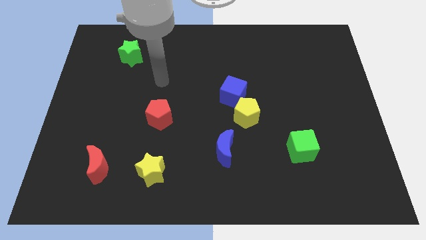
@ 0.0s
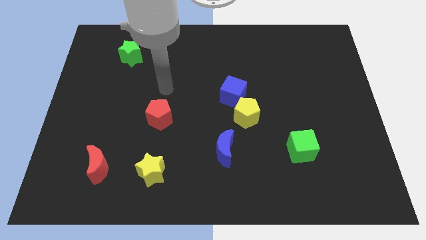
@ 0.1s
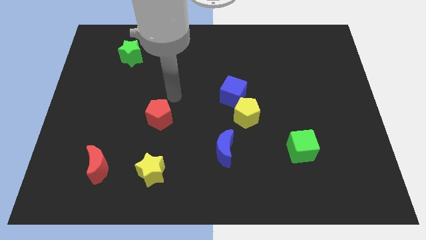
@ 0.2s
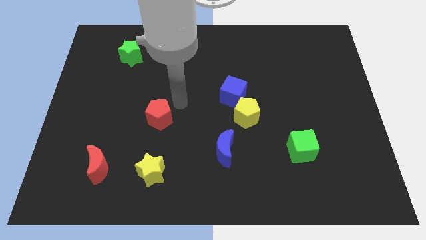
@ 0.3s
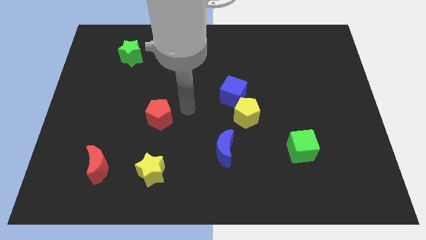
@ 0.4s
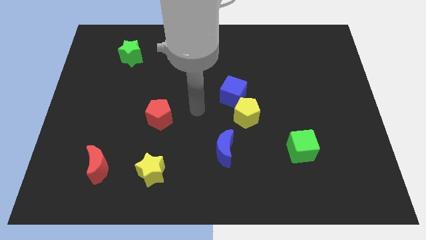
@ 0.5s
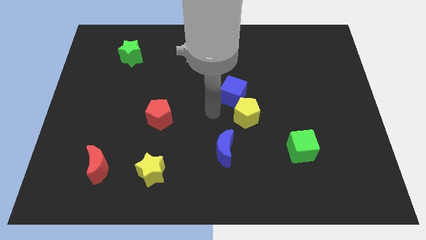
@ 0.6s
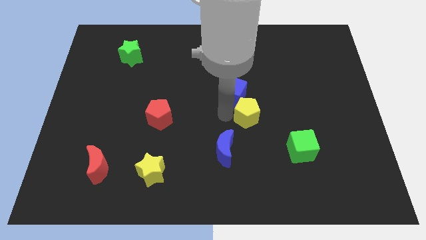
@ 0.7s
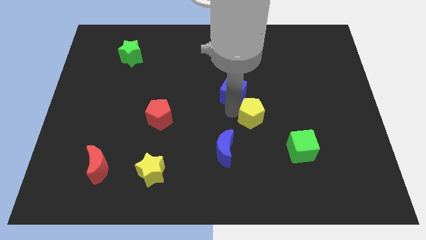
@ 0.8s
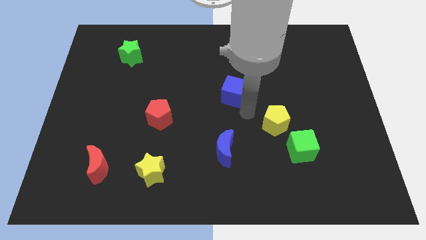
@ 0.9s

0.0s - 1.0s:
separate the blue cube from the yellow pentagon

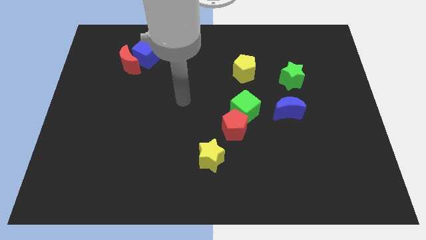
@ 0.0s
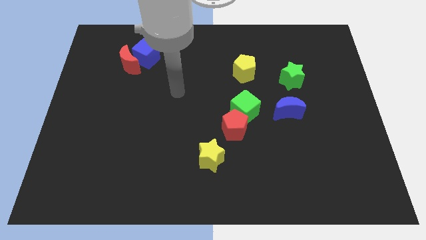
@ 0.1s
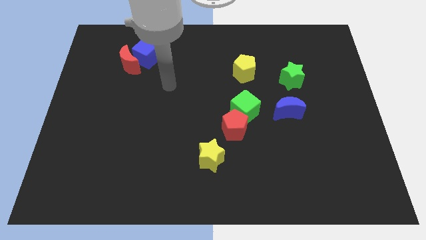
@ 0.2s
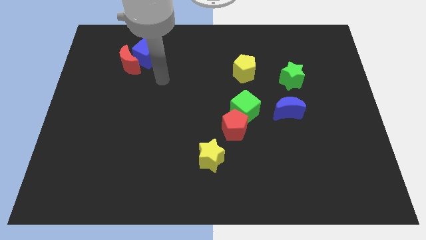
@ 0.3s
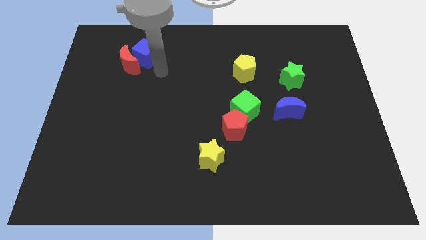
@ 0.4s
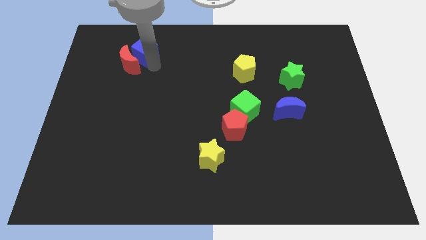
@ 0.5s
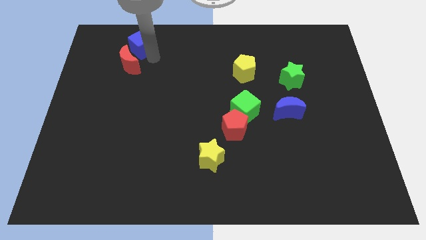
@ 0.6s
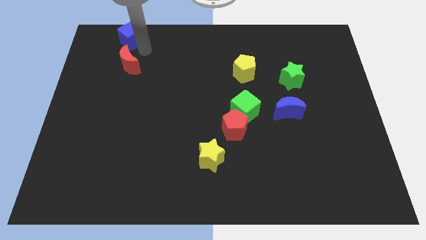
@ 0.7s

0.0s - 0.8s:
pull the red moon apart from the blue cube

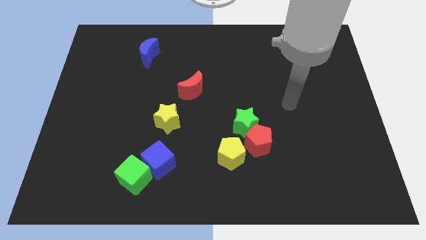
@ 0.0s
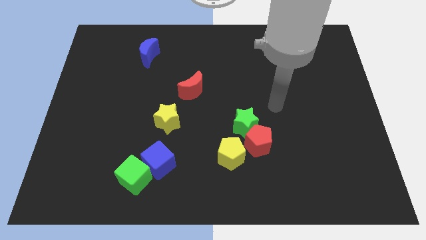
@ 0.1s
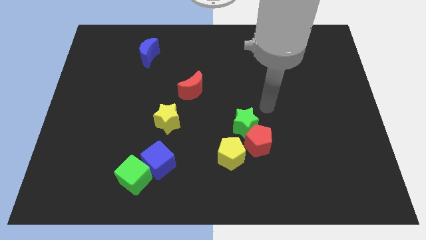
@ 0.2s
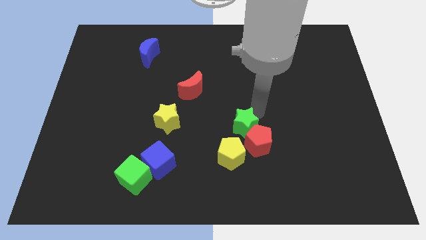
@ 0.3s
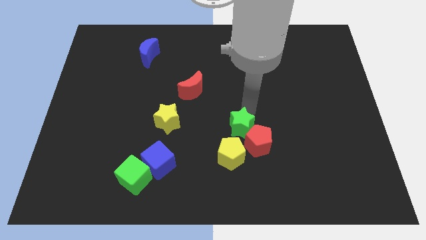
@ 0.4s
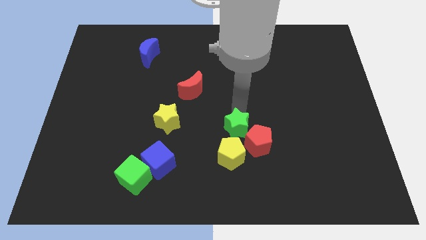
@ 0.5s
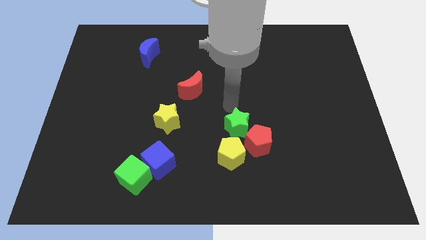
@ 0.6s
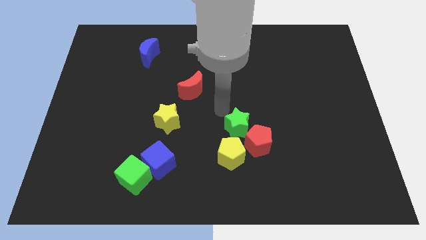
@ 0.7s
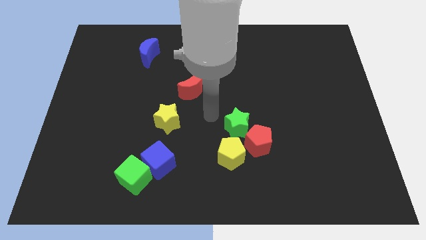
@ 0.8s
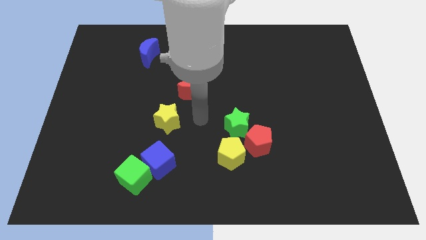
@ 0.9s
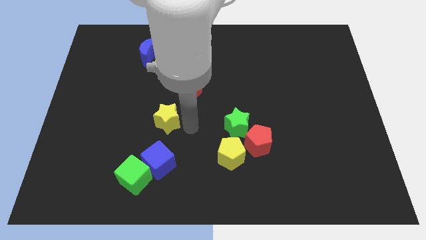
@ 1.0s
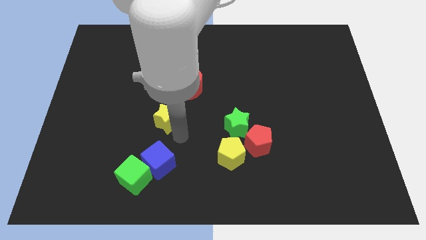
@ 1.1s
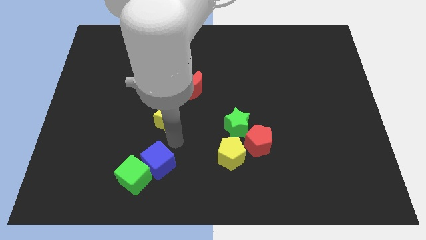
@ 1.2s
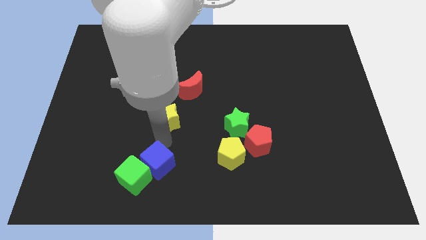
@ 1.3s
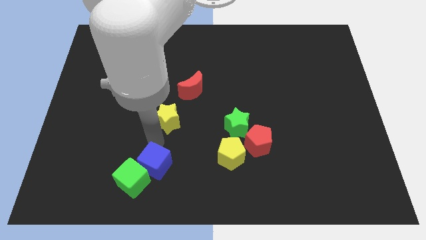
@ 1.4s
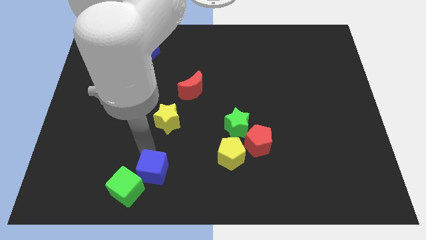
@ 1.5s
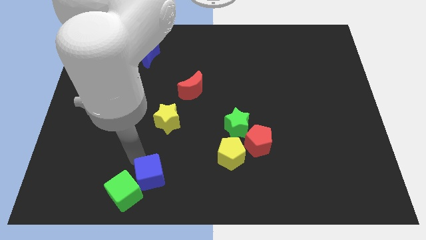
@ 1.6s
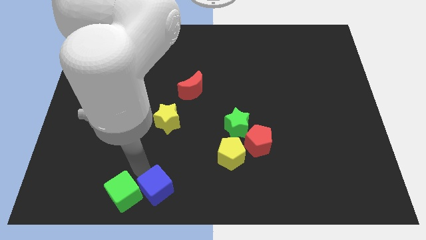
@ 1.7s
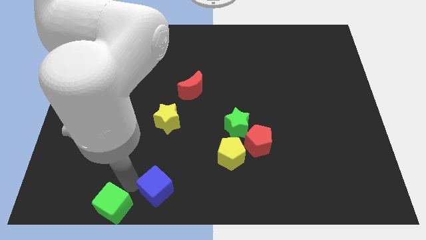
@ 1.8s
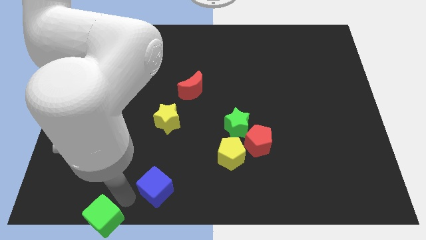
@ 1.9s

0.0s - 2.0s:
pull the blue cube apart from the green cube

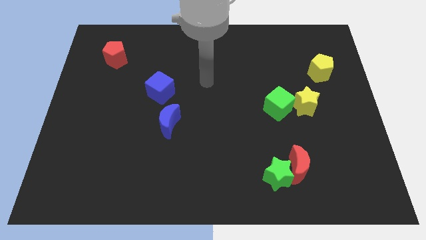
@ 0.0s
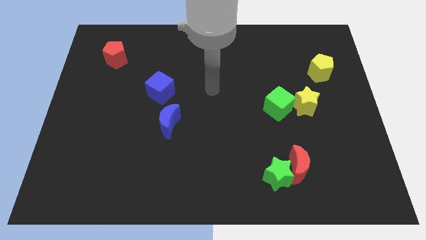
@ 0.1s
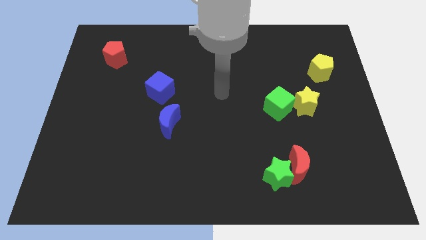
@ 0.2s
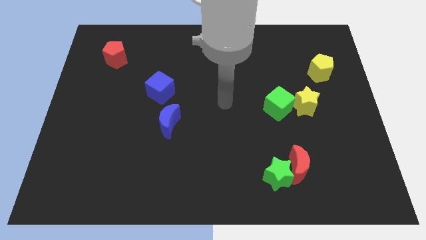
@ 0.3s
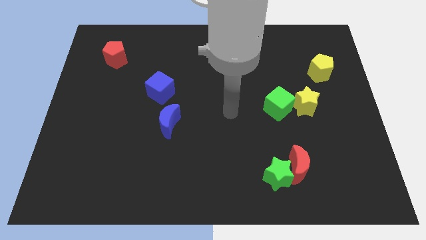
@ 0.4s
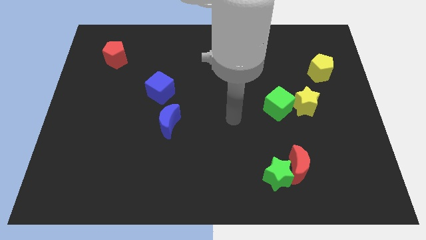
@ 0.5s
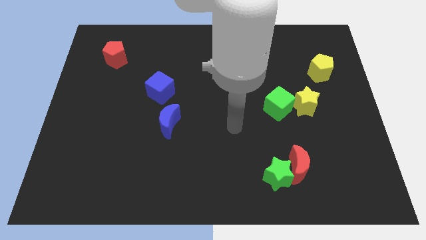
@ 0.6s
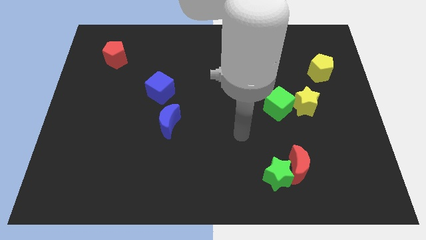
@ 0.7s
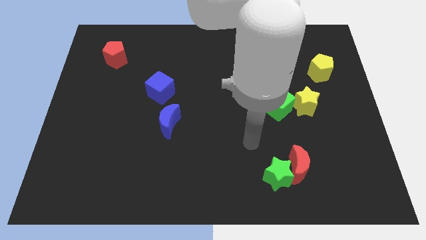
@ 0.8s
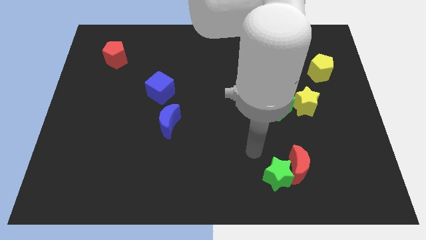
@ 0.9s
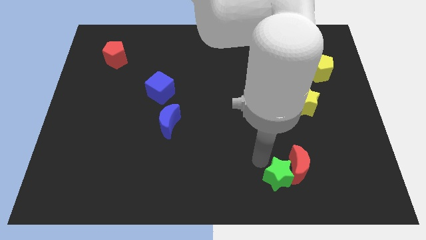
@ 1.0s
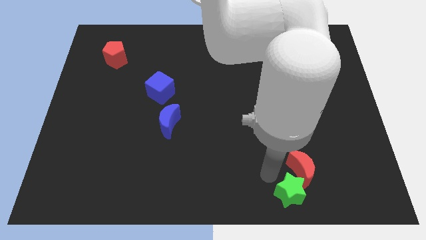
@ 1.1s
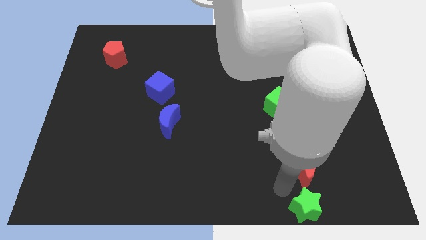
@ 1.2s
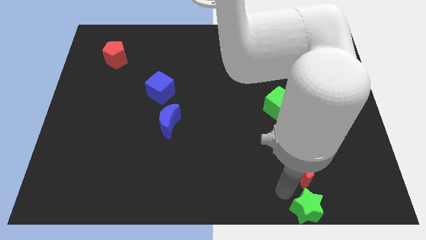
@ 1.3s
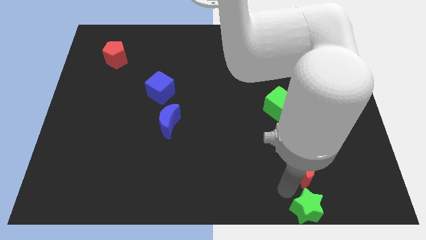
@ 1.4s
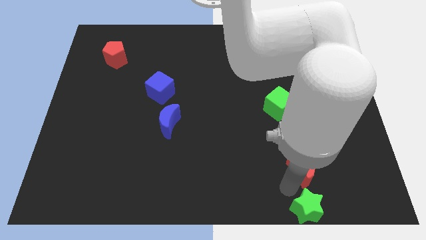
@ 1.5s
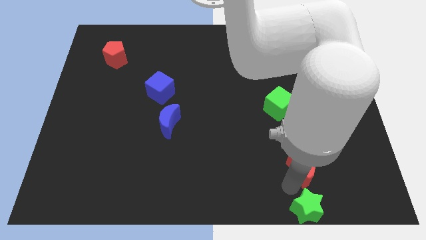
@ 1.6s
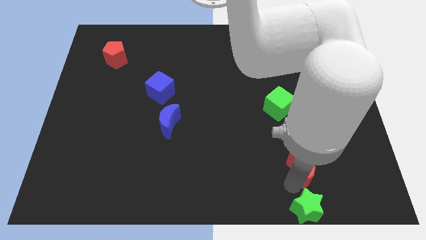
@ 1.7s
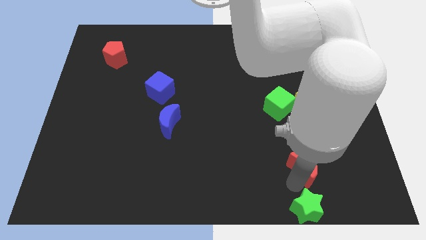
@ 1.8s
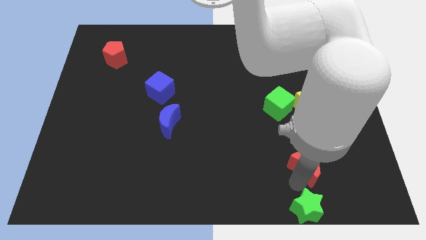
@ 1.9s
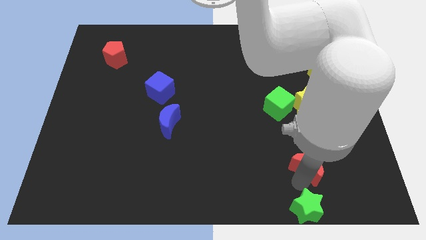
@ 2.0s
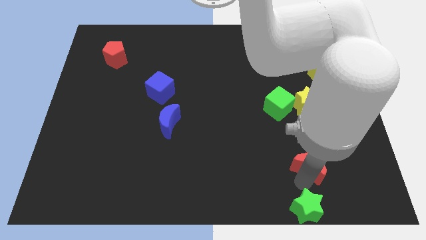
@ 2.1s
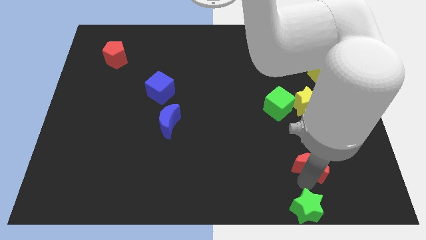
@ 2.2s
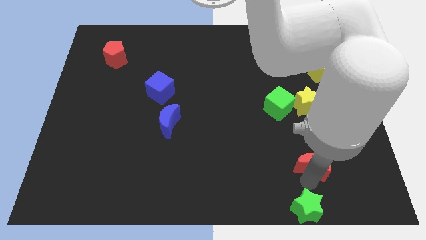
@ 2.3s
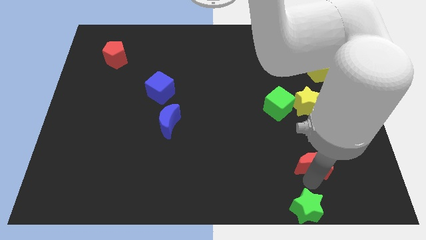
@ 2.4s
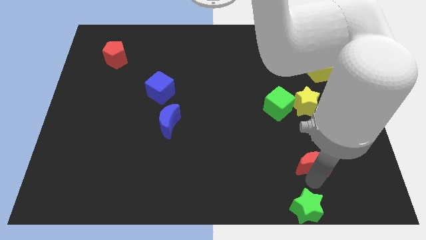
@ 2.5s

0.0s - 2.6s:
move the red moon away from the green star

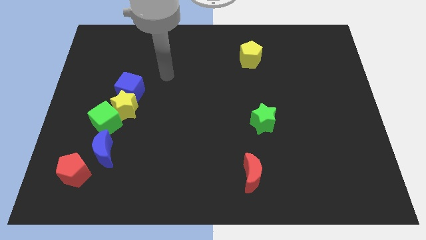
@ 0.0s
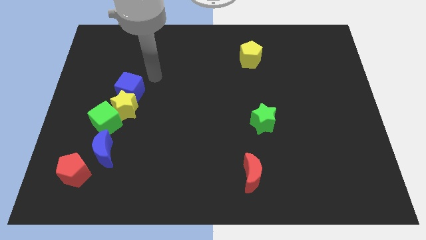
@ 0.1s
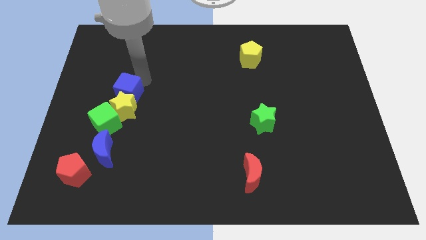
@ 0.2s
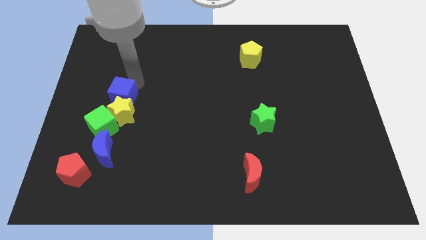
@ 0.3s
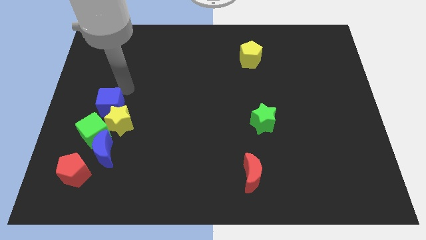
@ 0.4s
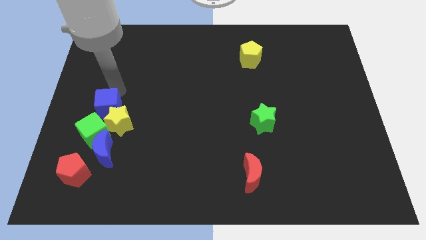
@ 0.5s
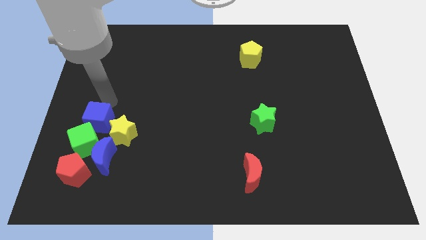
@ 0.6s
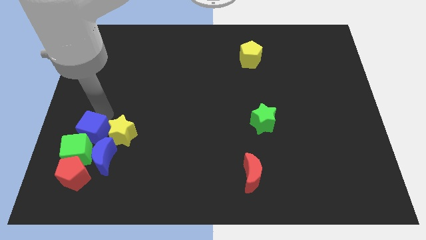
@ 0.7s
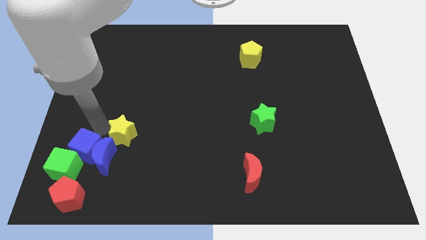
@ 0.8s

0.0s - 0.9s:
pull the yellow star apart from the green cube and blue cube

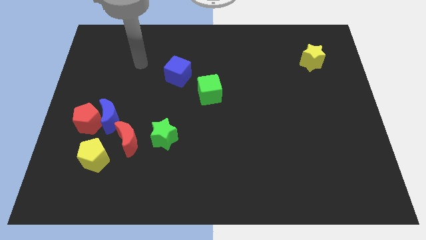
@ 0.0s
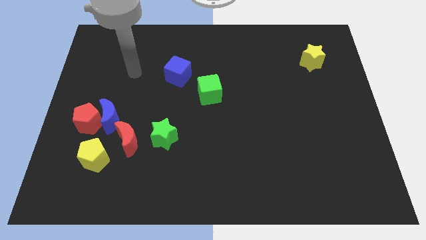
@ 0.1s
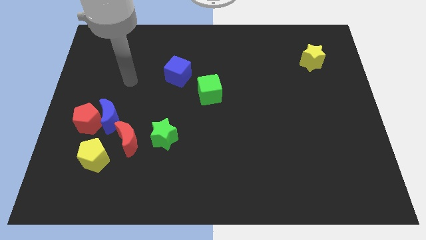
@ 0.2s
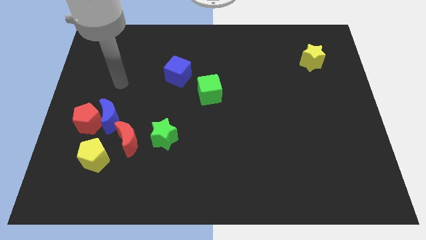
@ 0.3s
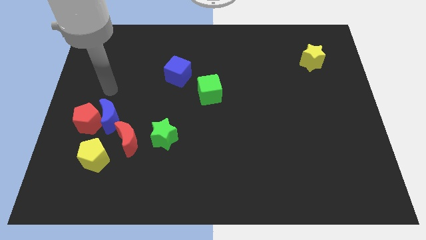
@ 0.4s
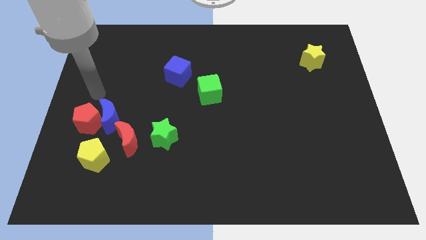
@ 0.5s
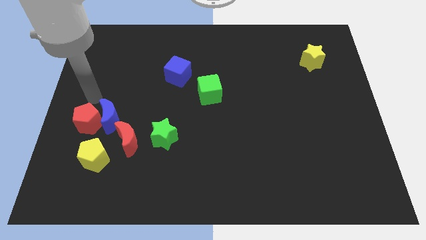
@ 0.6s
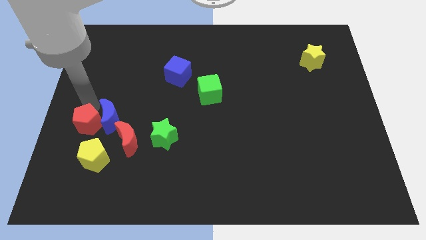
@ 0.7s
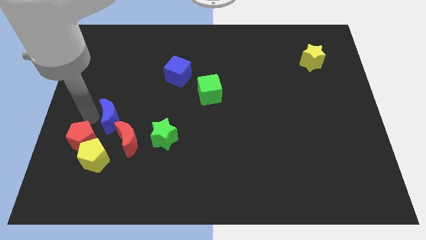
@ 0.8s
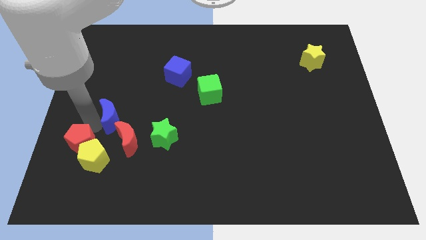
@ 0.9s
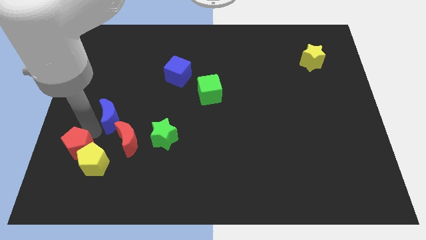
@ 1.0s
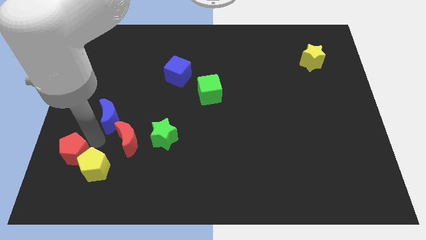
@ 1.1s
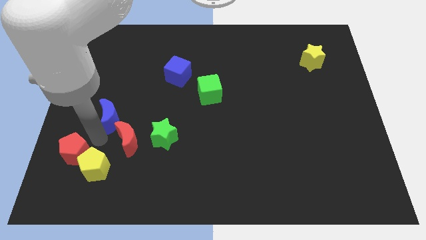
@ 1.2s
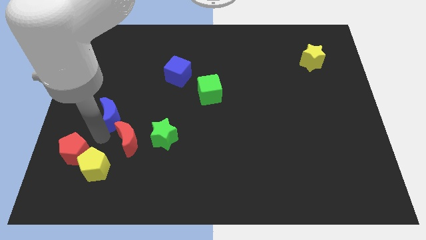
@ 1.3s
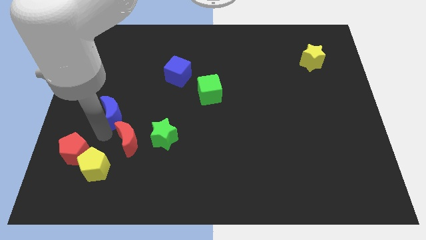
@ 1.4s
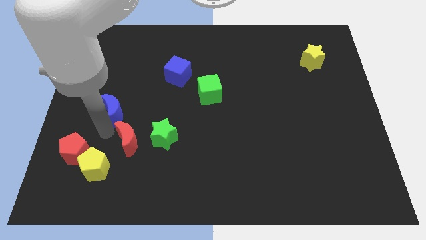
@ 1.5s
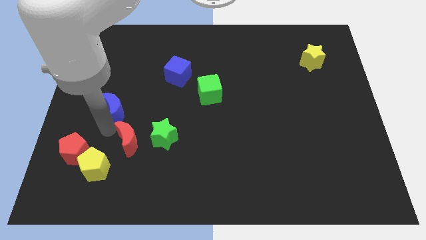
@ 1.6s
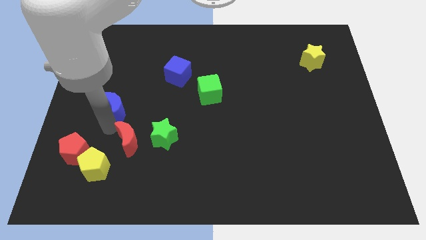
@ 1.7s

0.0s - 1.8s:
move the blue moon away from the red pentagon and red moon
